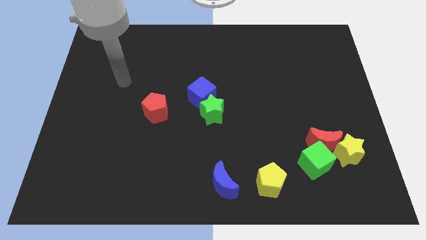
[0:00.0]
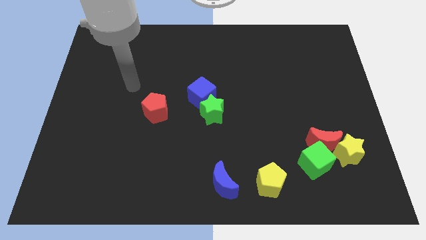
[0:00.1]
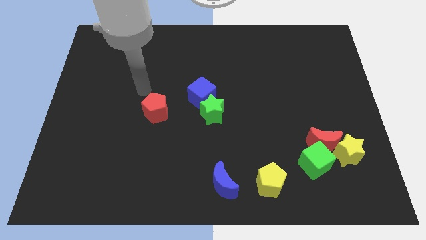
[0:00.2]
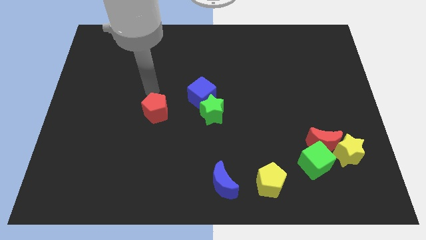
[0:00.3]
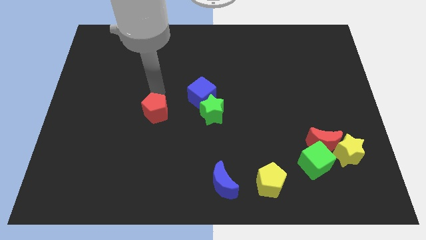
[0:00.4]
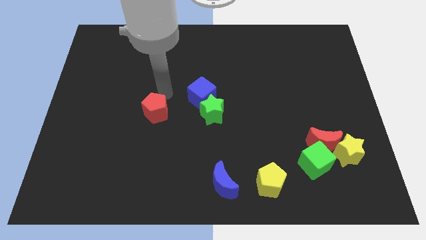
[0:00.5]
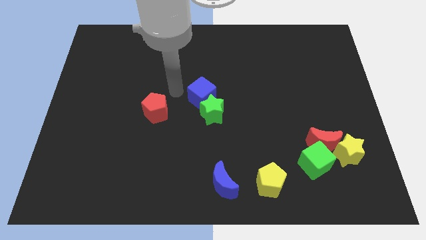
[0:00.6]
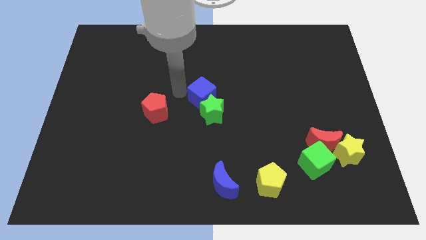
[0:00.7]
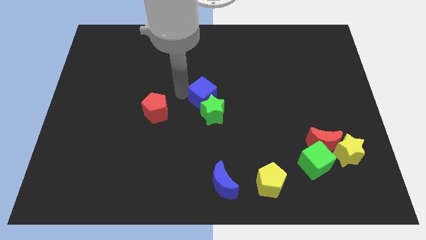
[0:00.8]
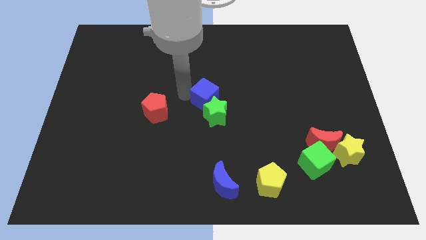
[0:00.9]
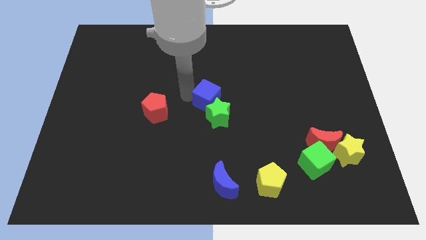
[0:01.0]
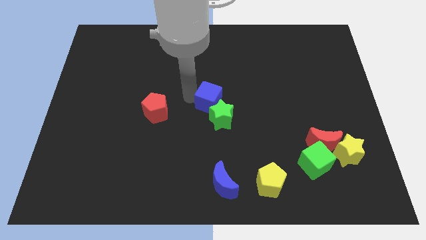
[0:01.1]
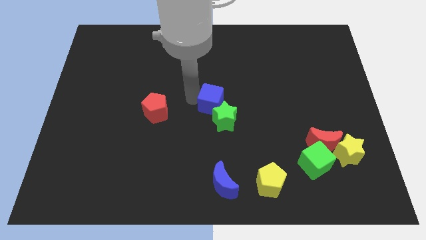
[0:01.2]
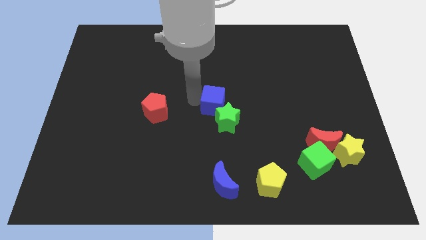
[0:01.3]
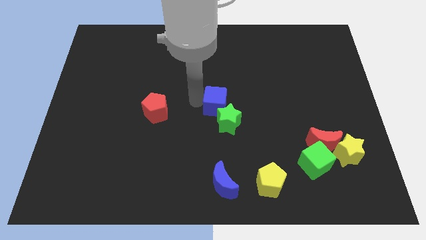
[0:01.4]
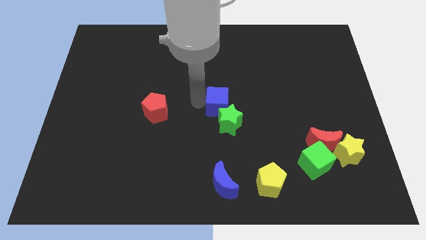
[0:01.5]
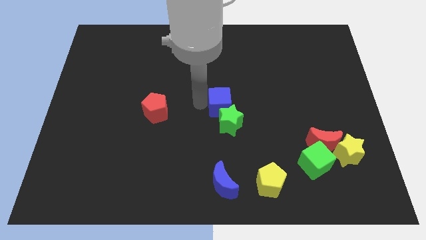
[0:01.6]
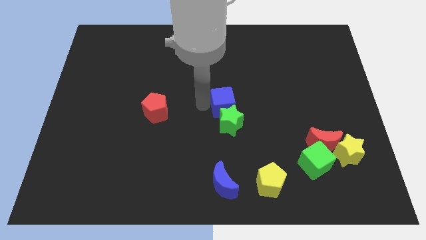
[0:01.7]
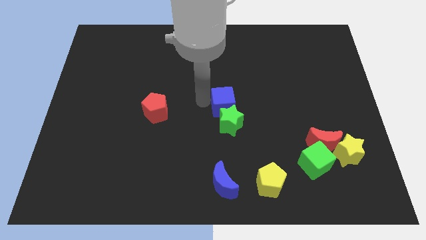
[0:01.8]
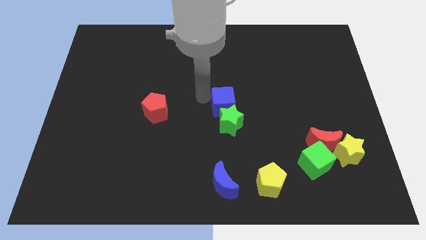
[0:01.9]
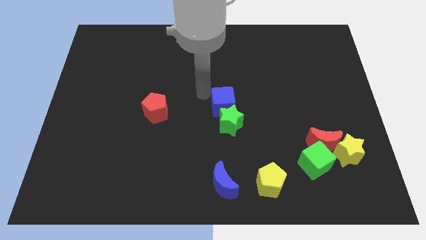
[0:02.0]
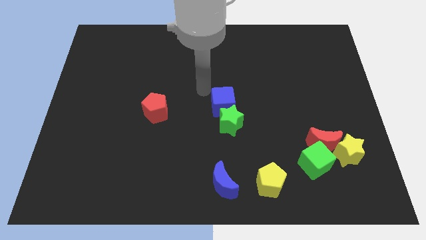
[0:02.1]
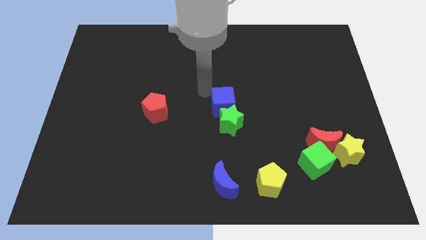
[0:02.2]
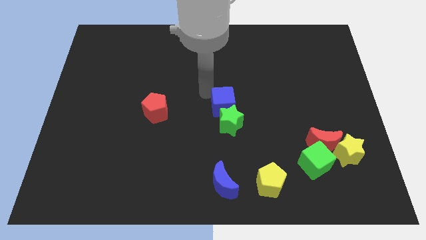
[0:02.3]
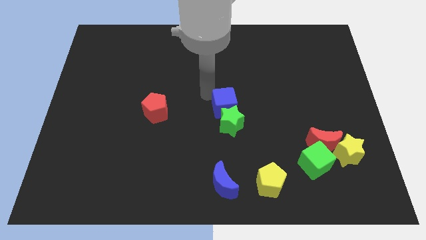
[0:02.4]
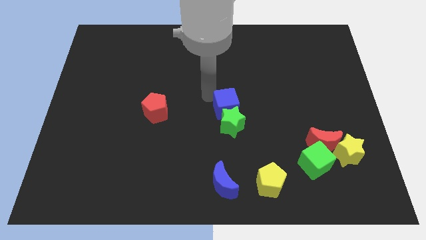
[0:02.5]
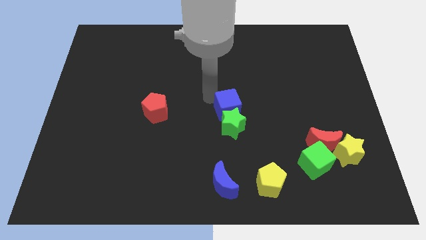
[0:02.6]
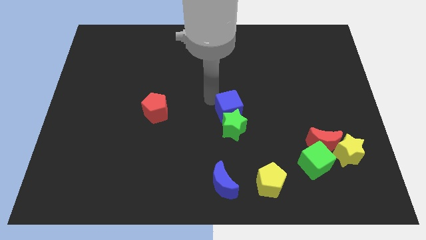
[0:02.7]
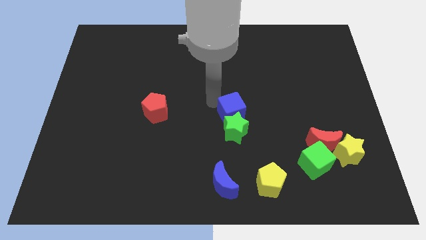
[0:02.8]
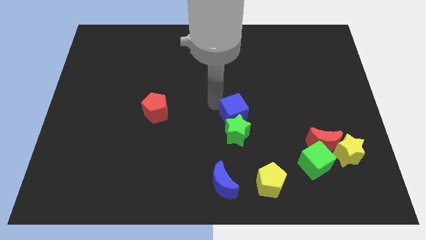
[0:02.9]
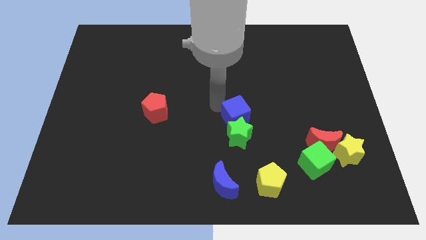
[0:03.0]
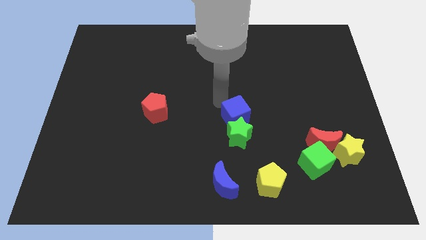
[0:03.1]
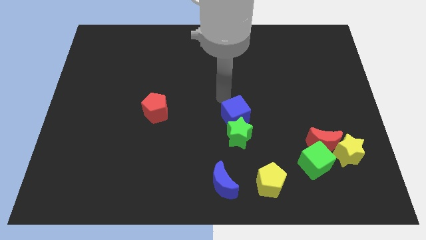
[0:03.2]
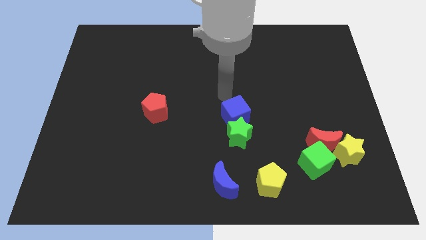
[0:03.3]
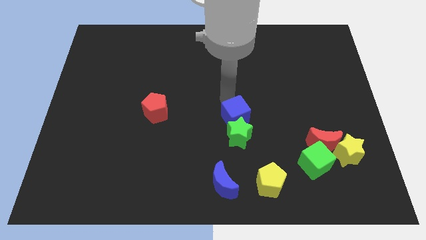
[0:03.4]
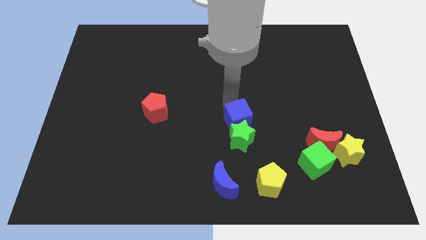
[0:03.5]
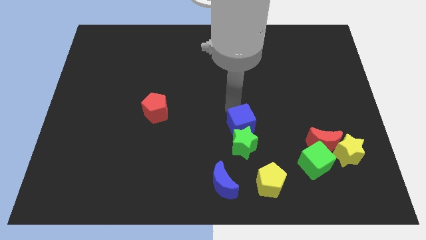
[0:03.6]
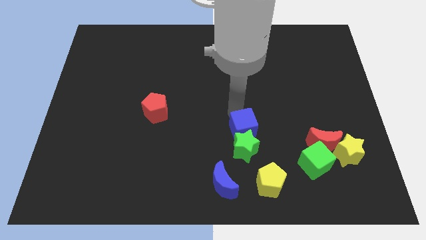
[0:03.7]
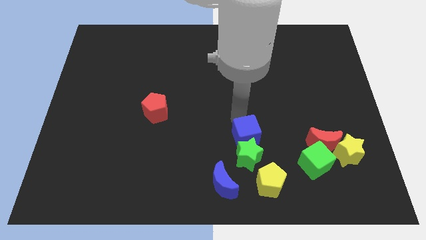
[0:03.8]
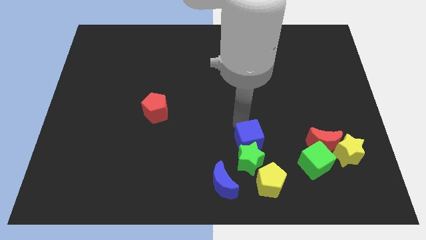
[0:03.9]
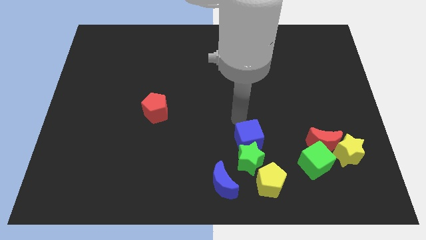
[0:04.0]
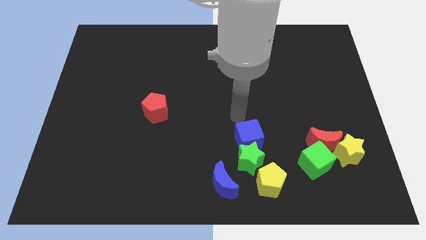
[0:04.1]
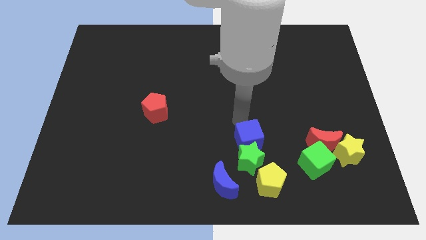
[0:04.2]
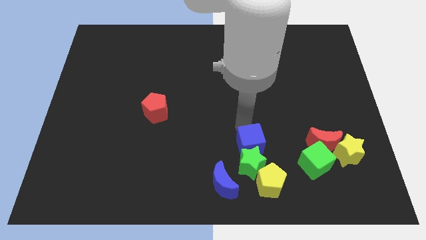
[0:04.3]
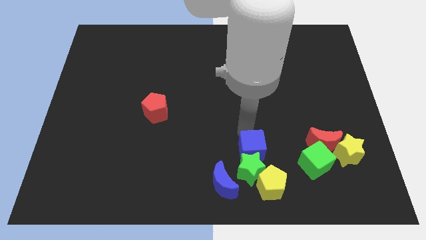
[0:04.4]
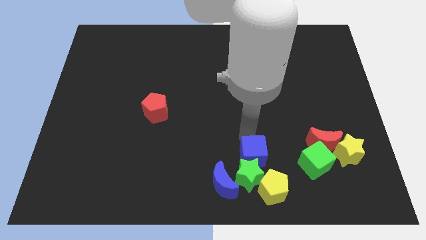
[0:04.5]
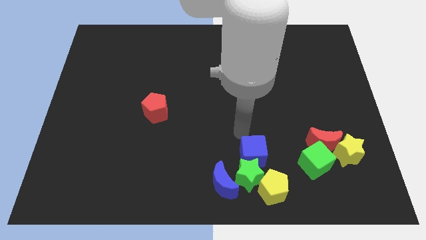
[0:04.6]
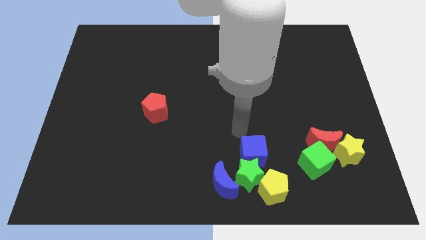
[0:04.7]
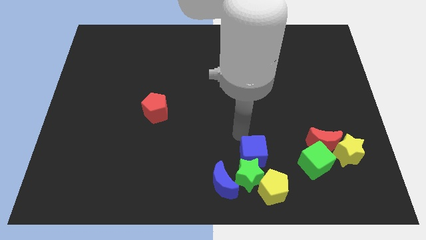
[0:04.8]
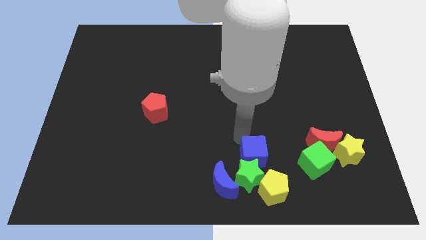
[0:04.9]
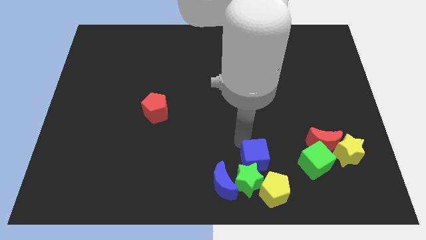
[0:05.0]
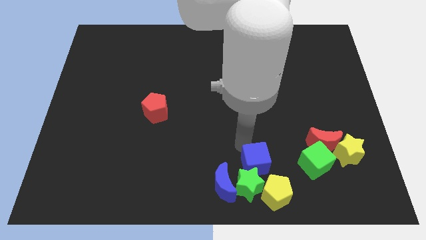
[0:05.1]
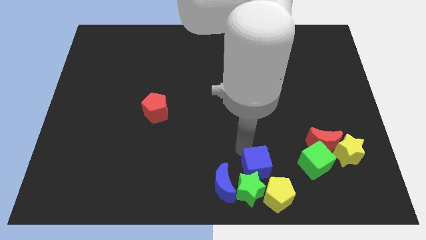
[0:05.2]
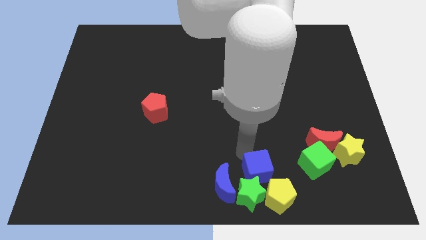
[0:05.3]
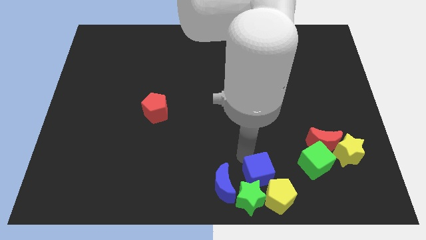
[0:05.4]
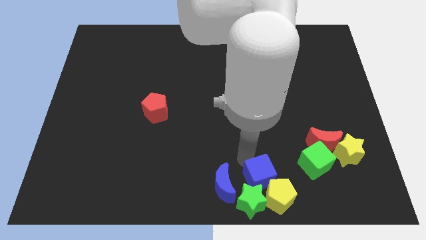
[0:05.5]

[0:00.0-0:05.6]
slide the blue cube towards the yellow pentagon

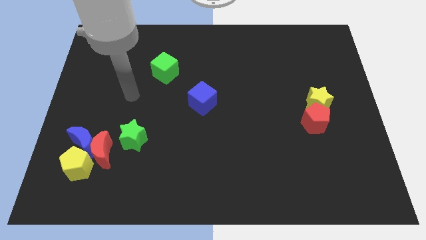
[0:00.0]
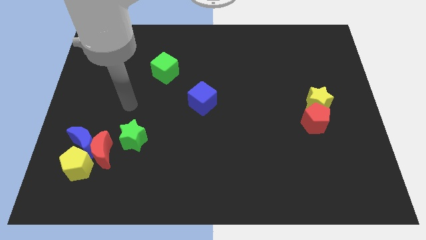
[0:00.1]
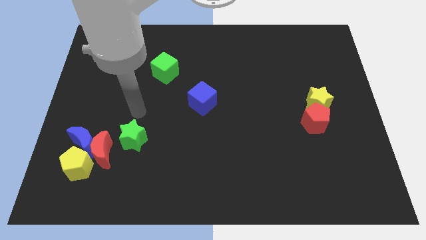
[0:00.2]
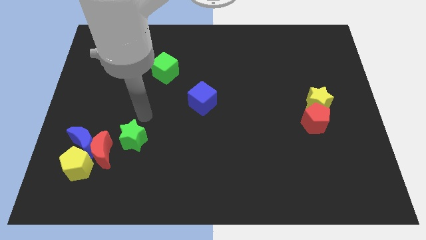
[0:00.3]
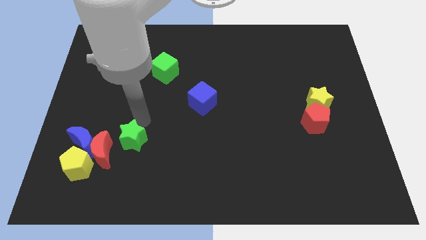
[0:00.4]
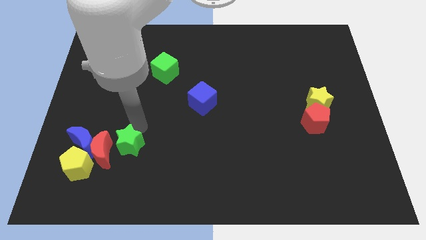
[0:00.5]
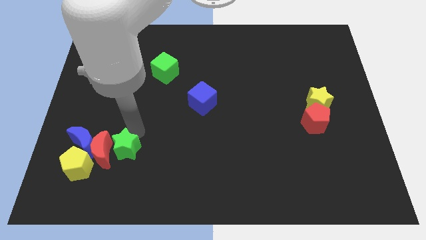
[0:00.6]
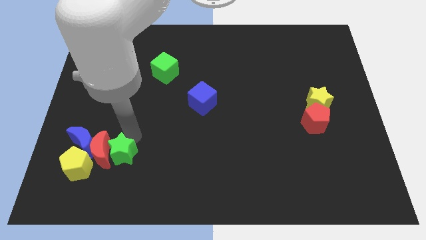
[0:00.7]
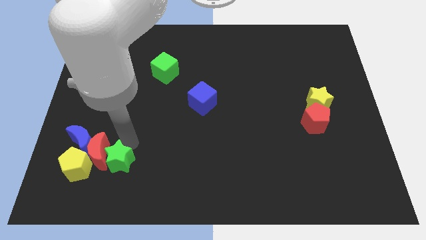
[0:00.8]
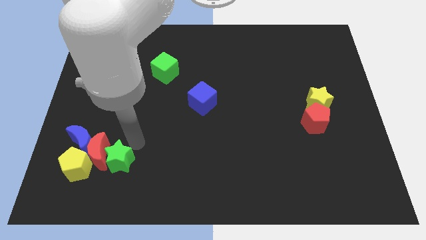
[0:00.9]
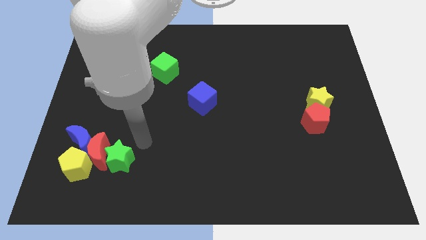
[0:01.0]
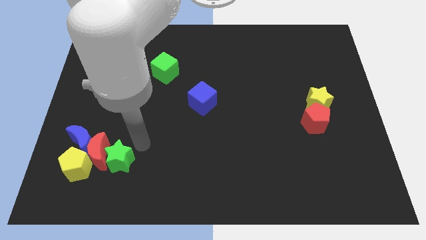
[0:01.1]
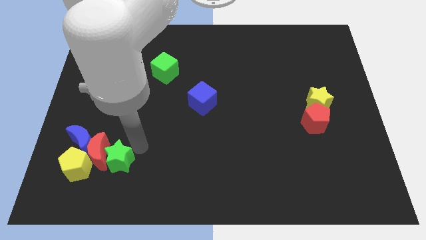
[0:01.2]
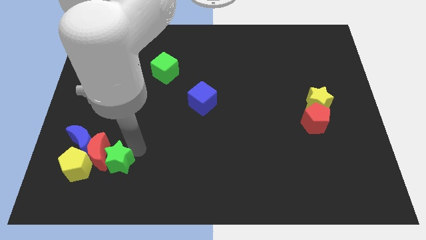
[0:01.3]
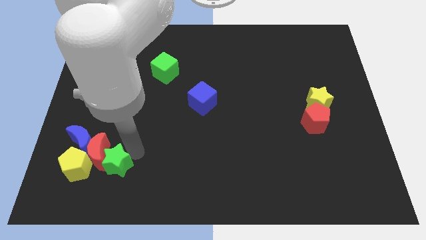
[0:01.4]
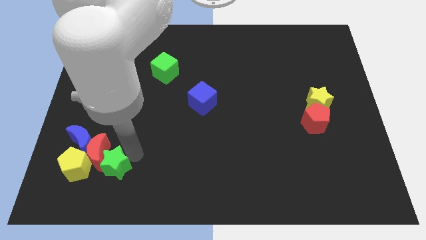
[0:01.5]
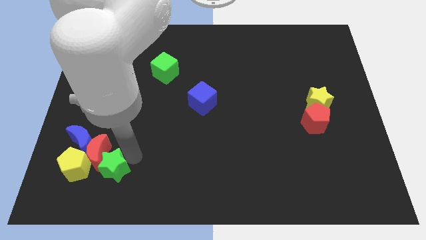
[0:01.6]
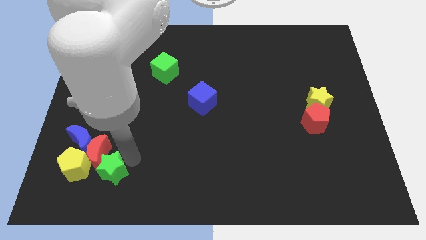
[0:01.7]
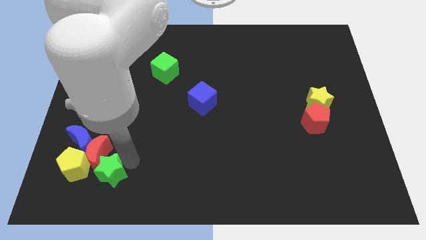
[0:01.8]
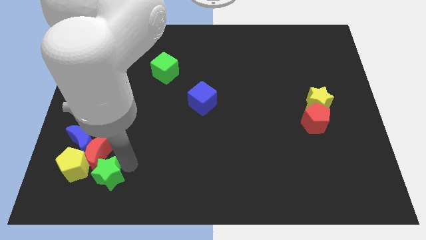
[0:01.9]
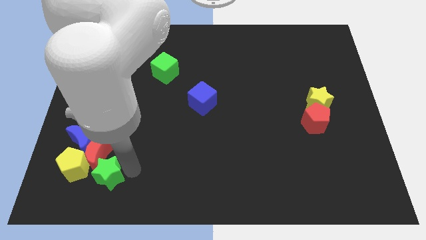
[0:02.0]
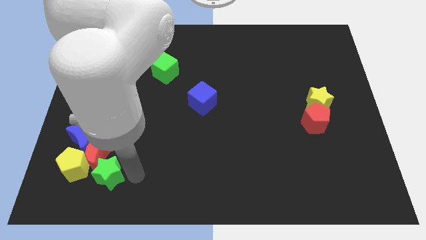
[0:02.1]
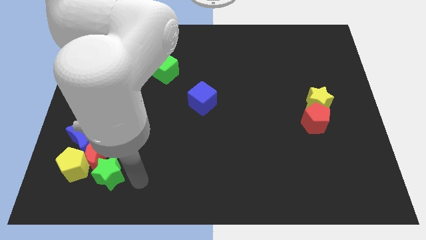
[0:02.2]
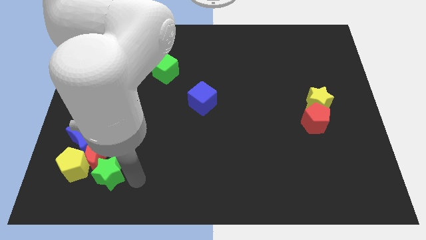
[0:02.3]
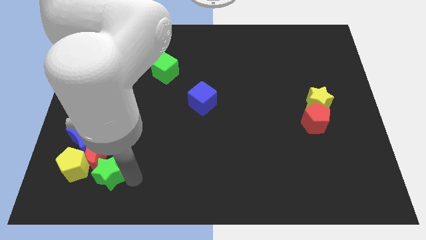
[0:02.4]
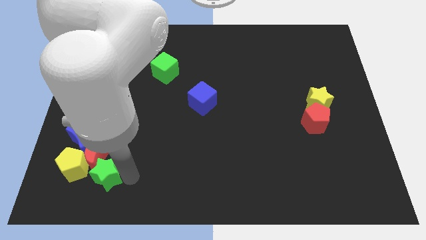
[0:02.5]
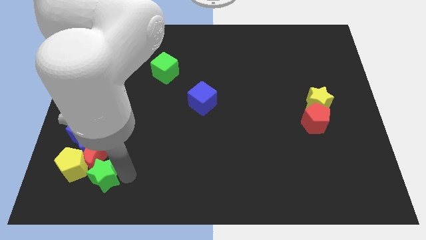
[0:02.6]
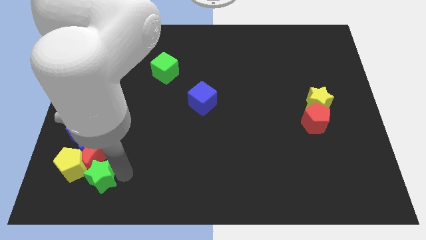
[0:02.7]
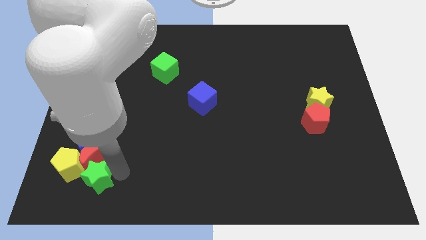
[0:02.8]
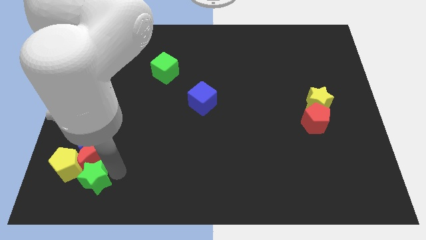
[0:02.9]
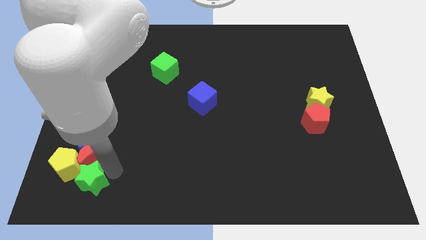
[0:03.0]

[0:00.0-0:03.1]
slide the green star next to the yellow pentagon
